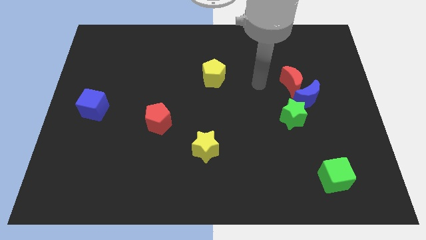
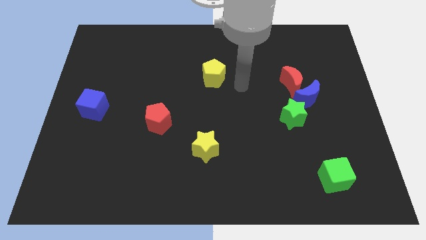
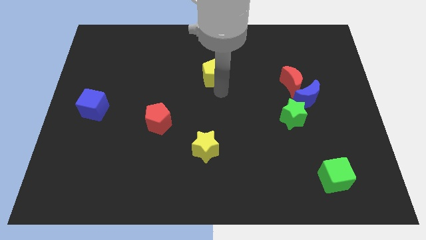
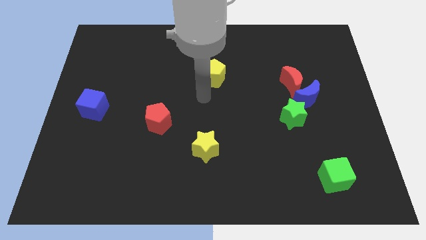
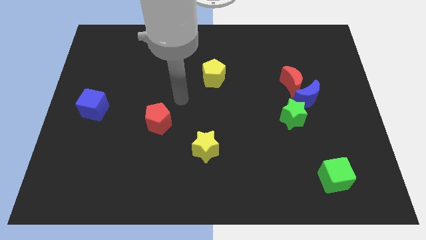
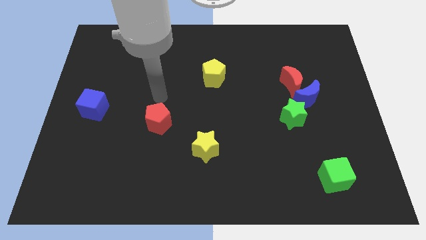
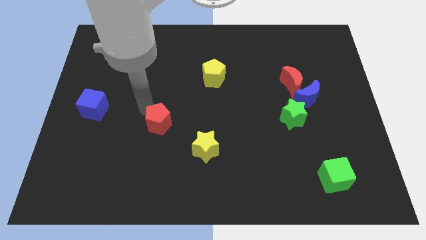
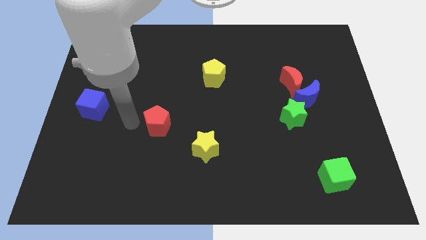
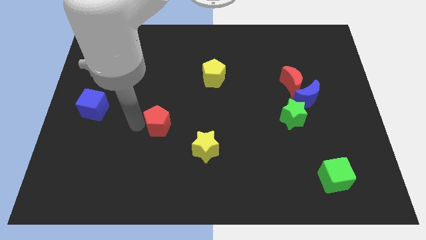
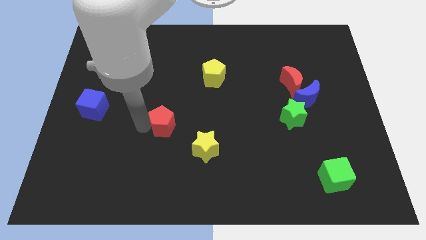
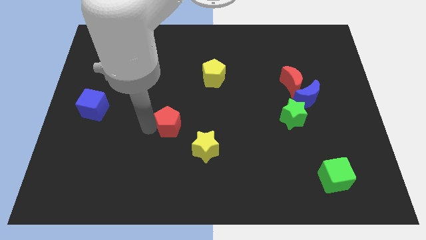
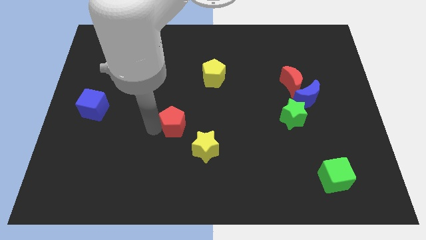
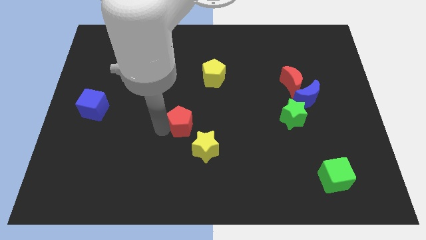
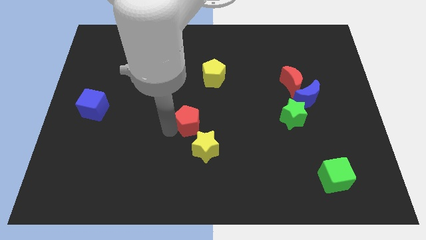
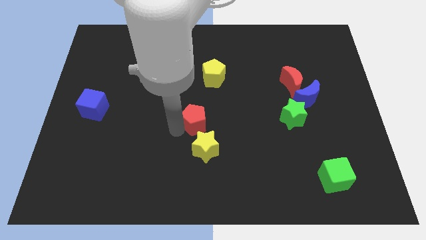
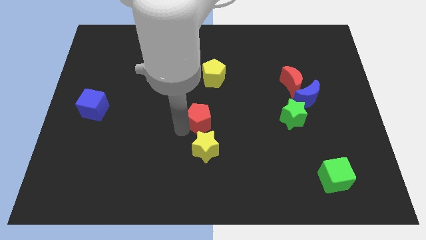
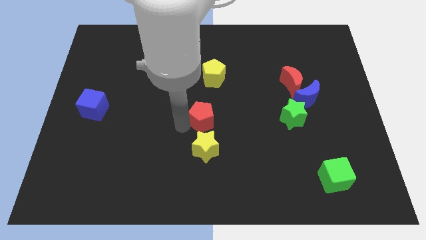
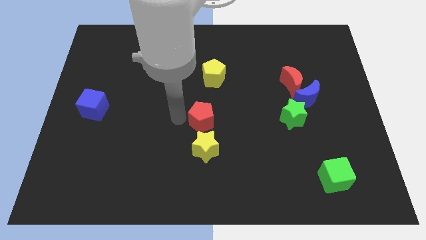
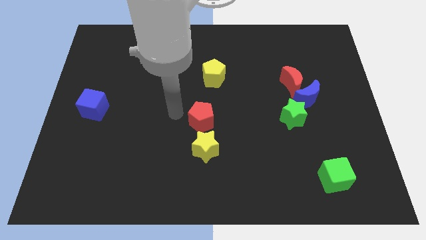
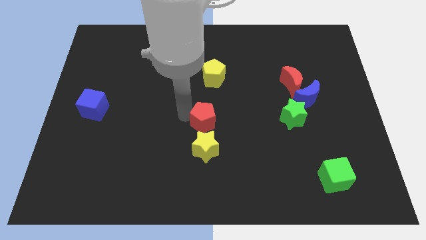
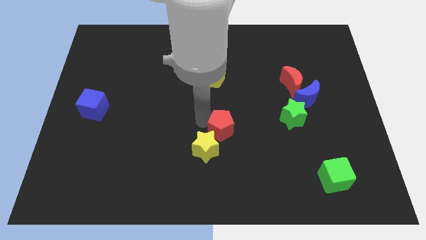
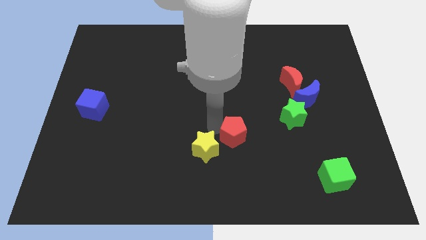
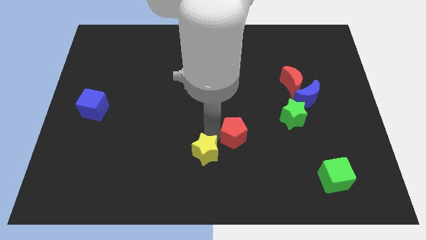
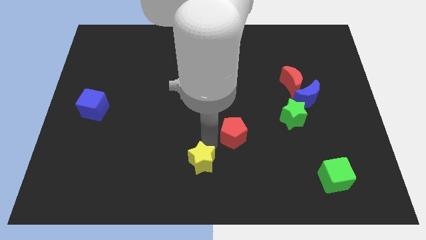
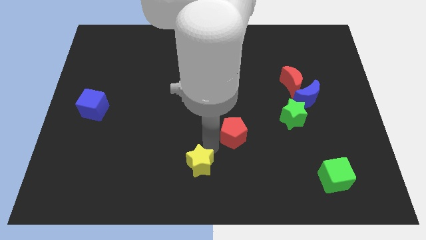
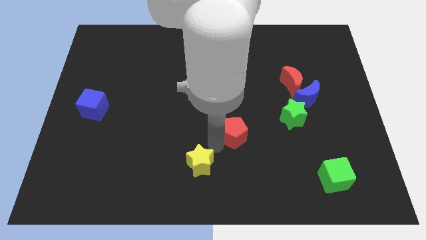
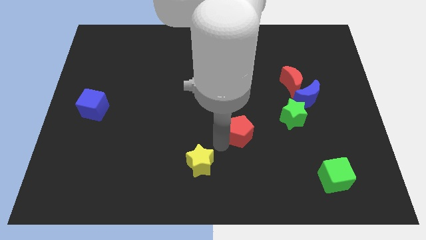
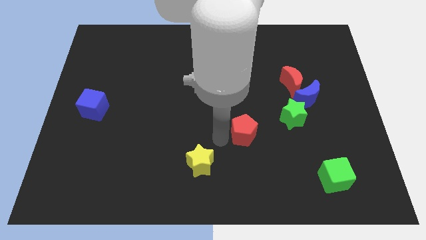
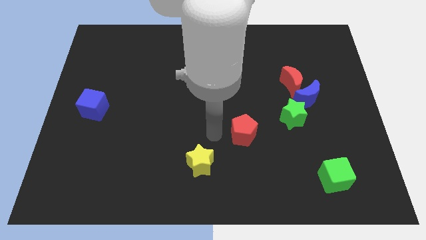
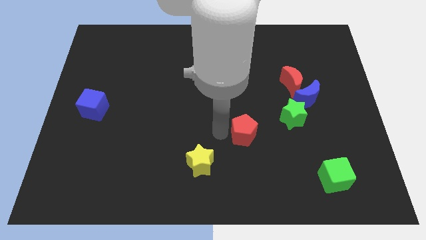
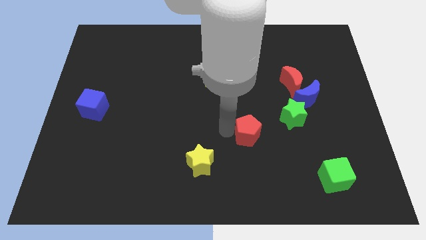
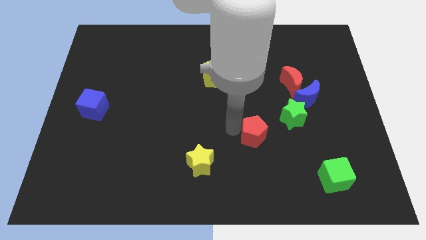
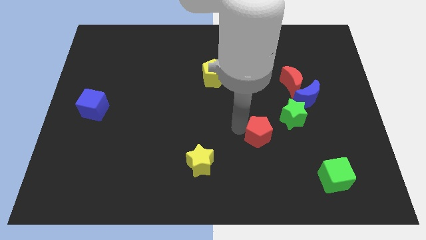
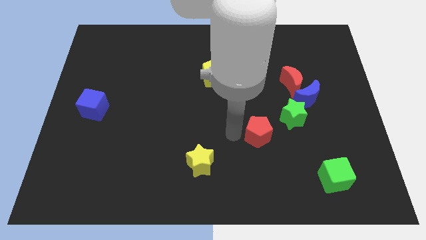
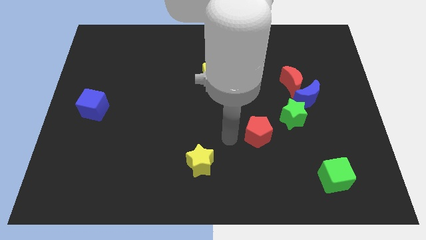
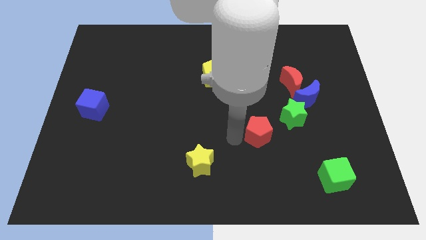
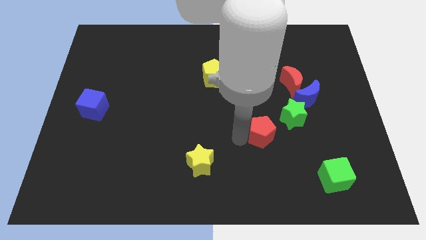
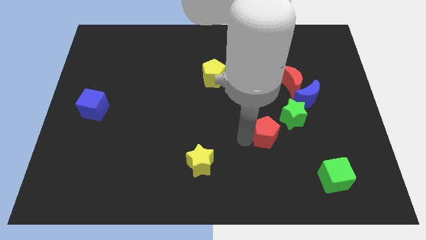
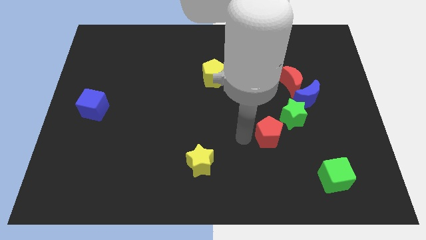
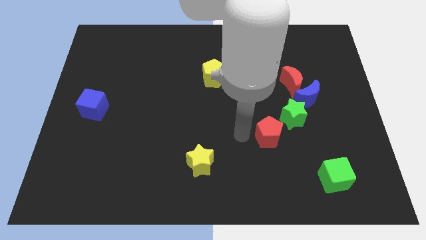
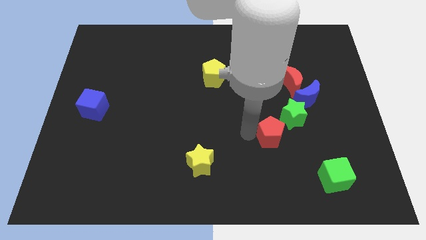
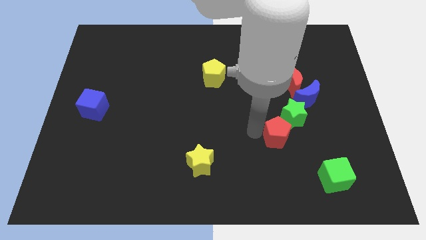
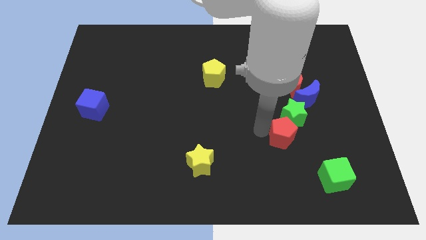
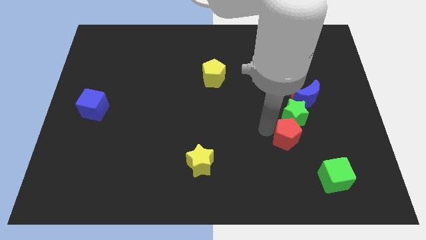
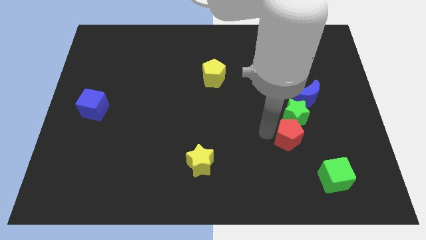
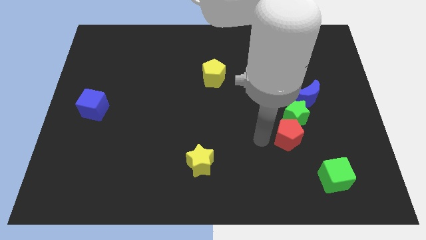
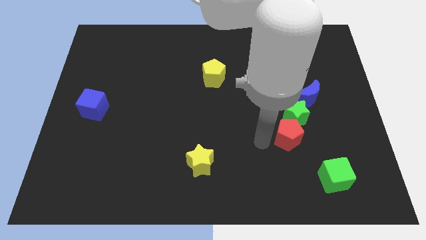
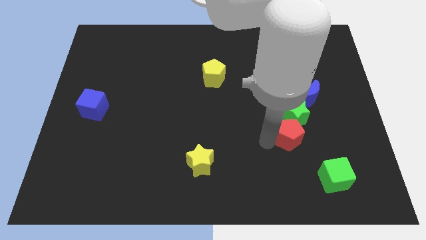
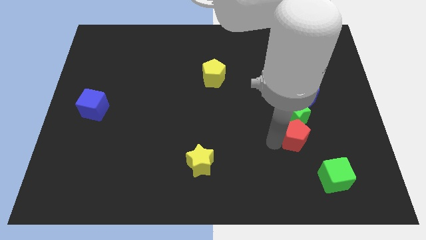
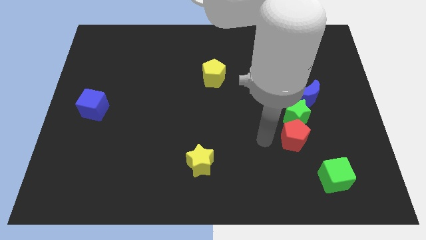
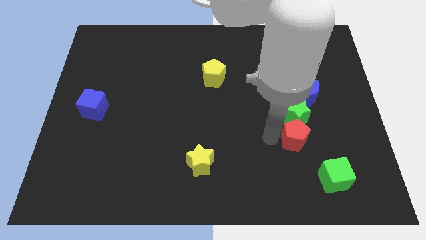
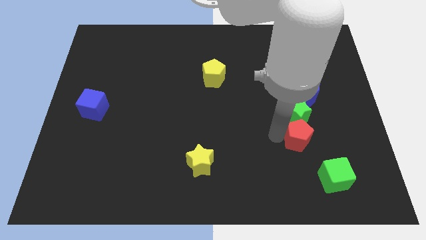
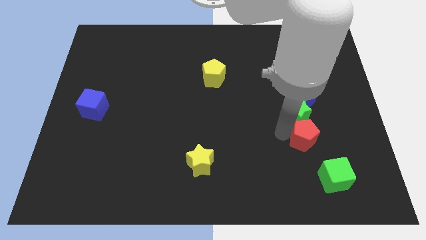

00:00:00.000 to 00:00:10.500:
slide the red pentagon to the top side of the green cube
